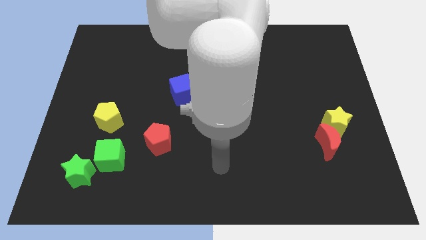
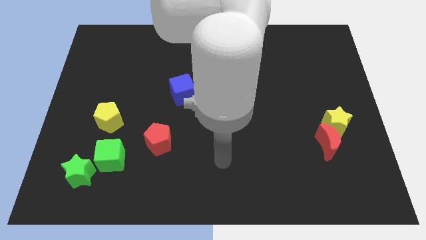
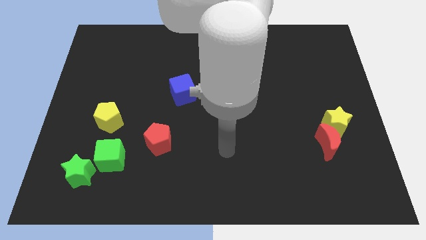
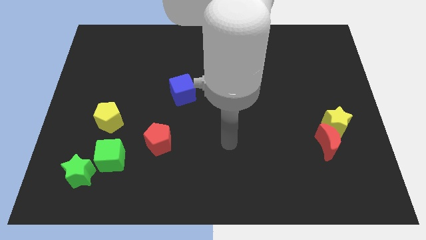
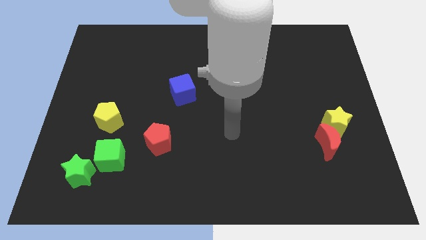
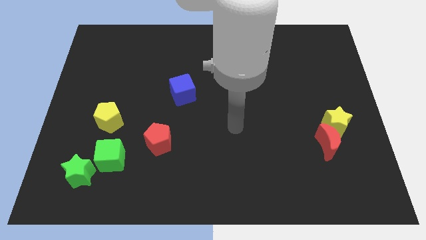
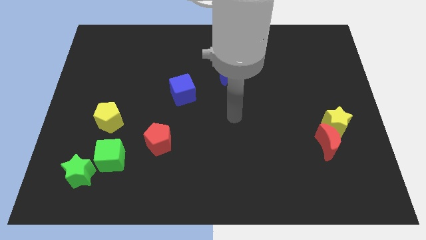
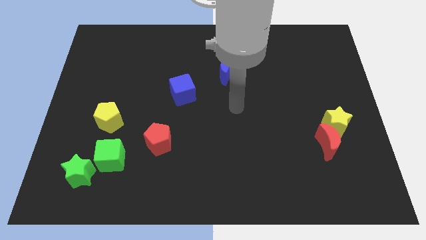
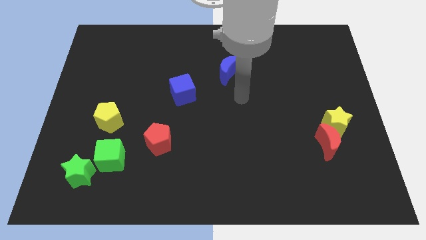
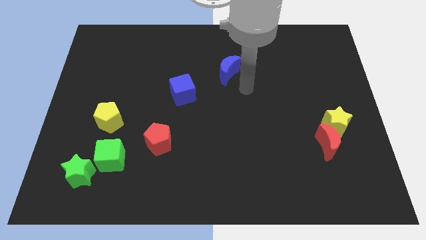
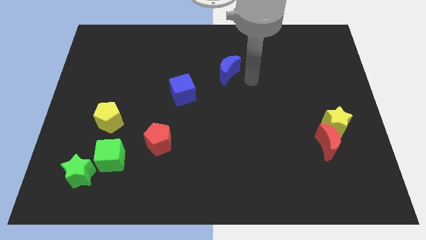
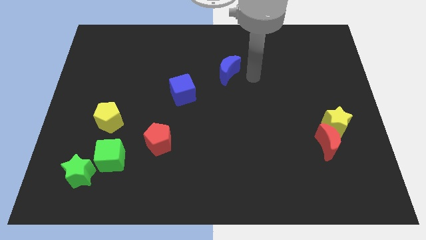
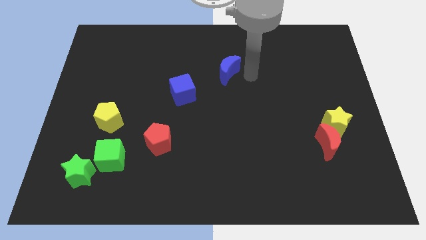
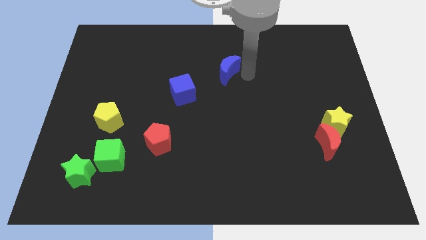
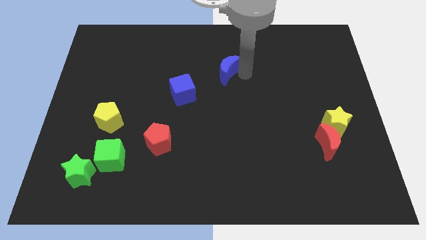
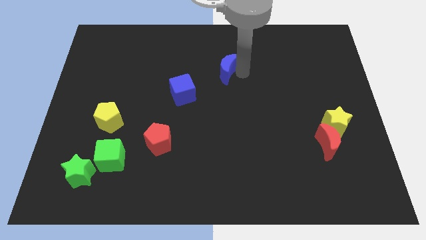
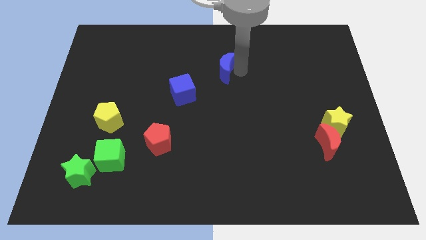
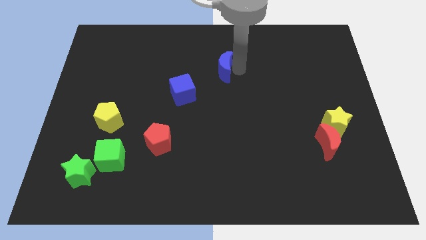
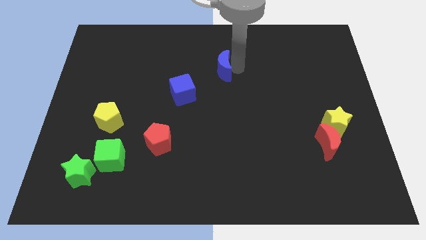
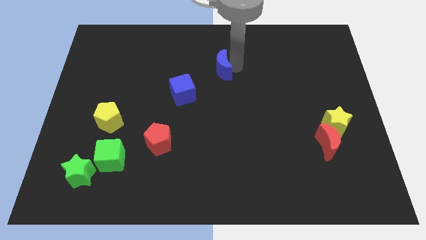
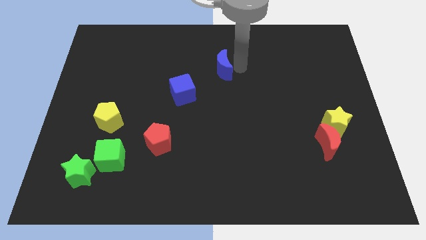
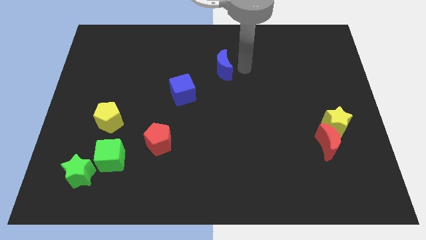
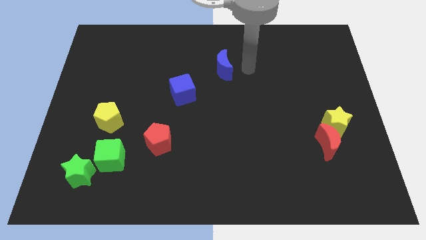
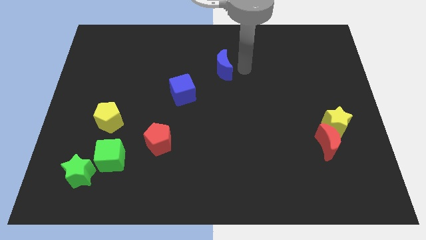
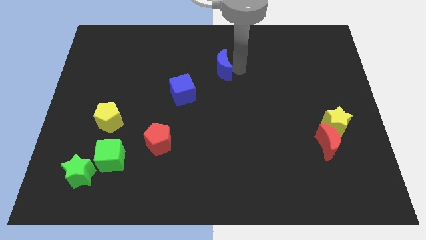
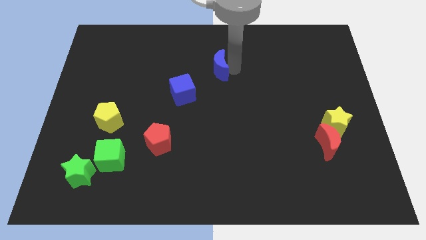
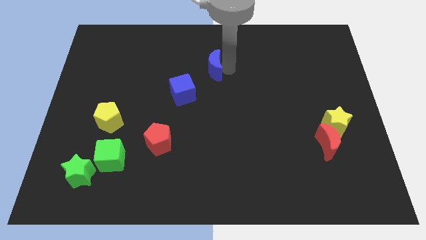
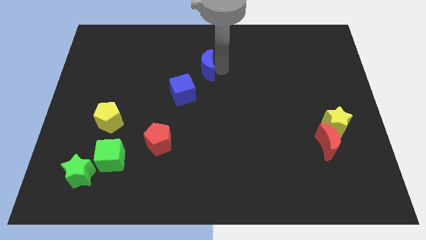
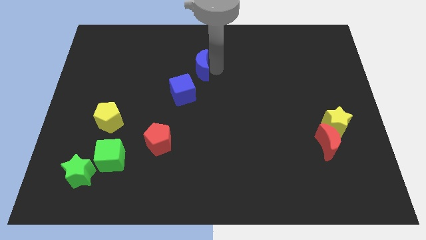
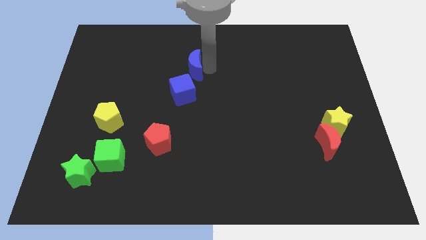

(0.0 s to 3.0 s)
push the blue moon left slightly

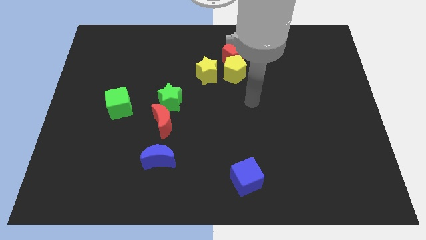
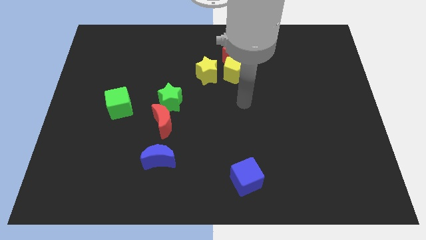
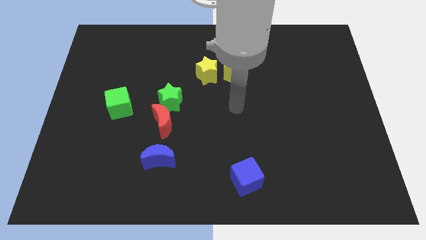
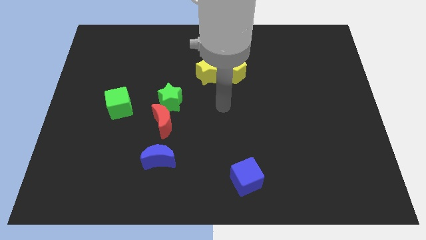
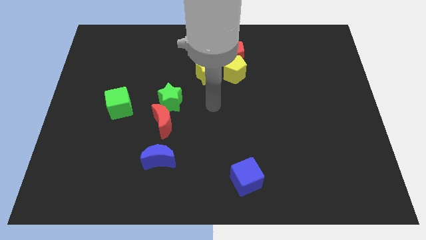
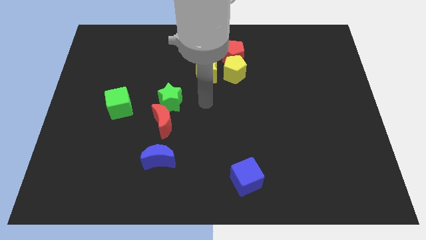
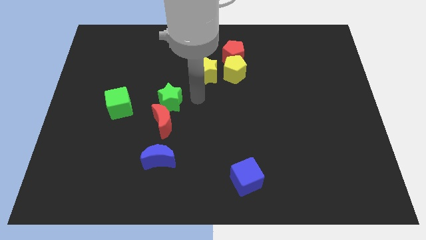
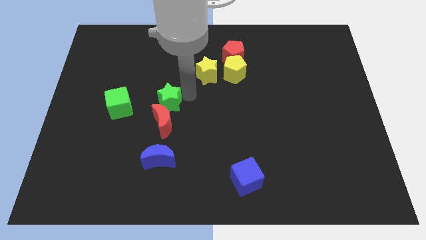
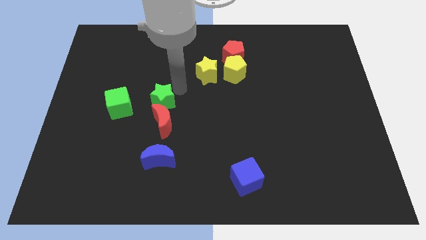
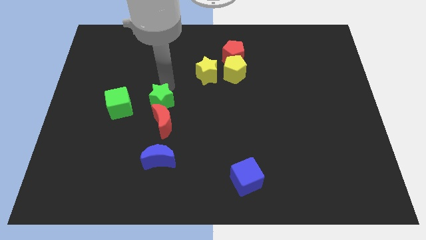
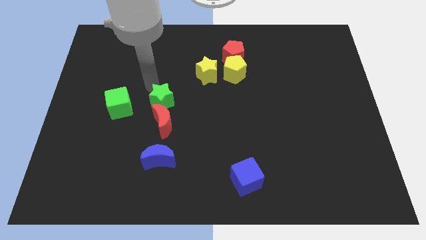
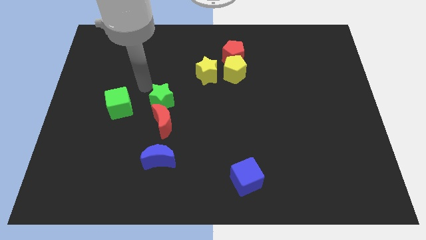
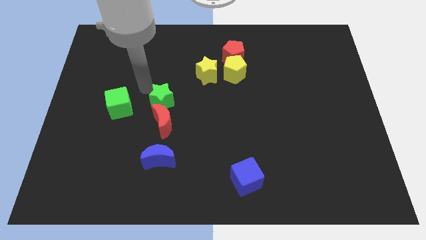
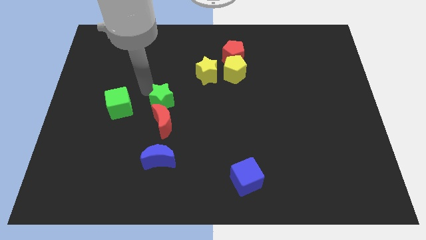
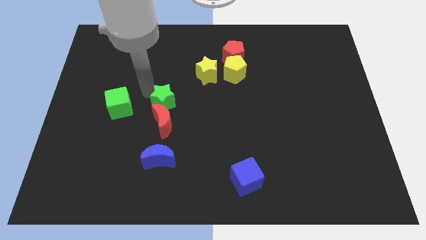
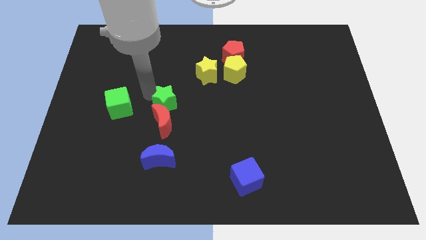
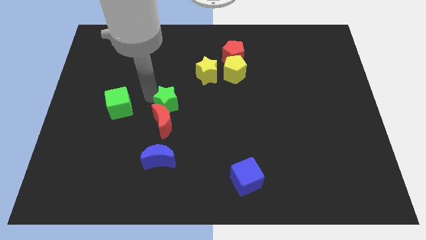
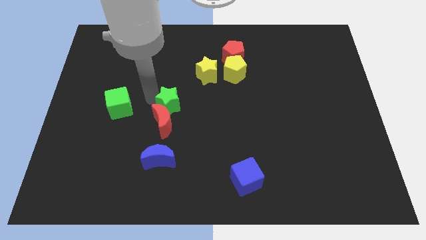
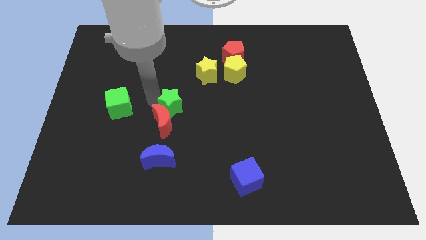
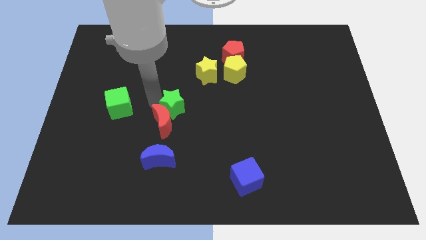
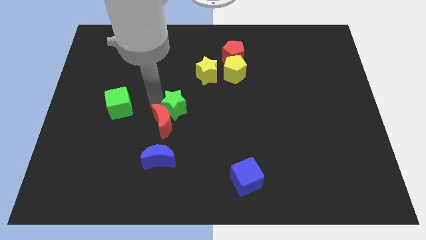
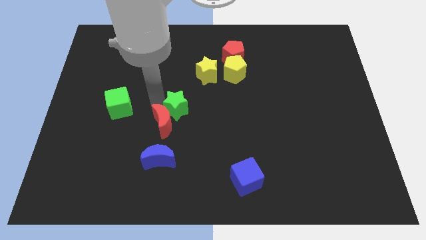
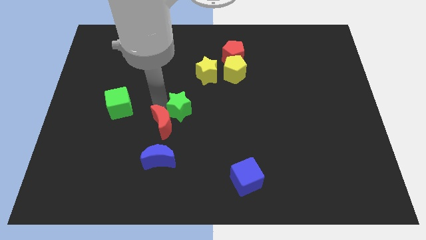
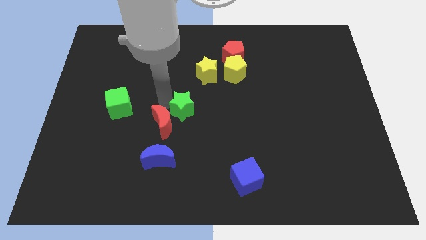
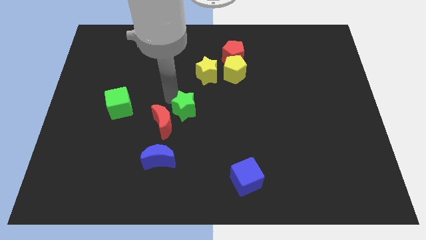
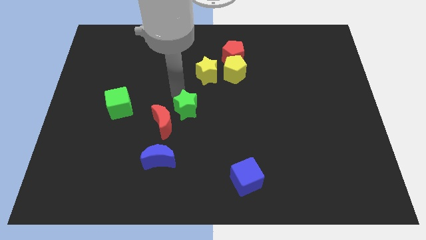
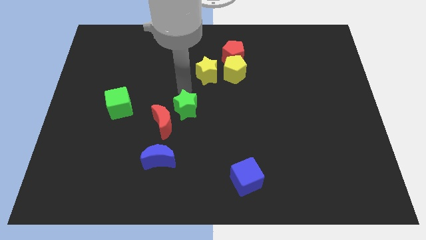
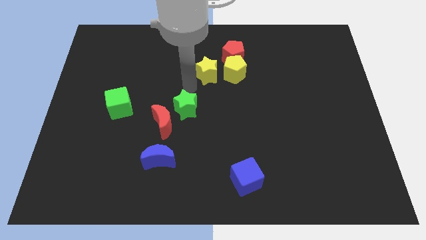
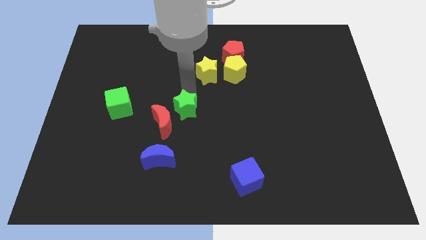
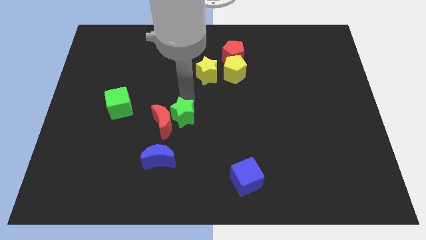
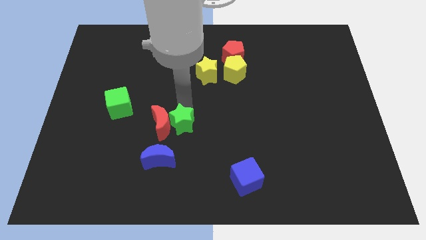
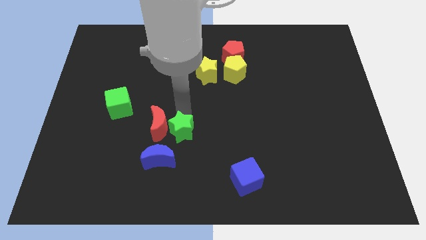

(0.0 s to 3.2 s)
slightly move the green star down

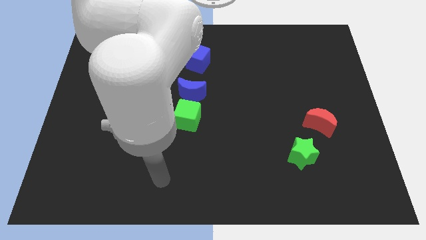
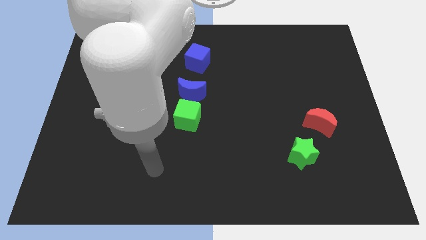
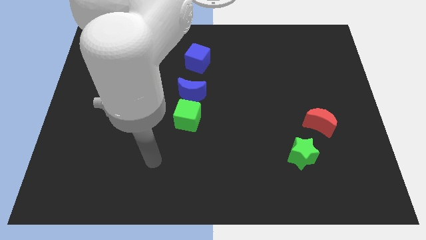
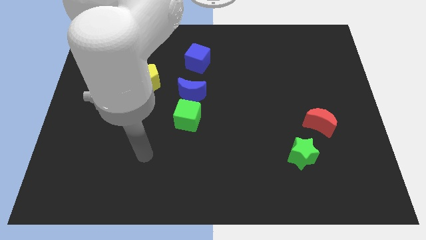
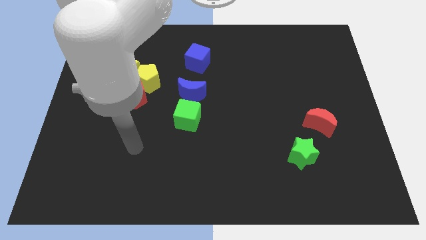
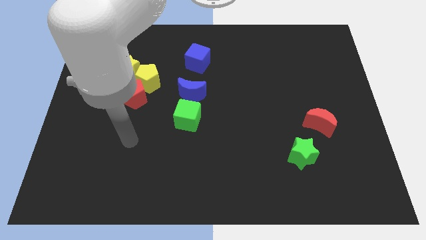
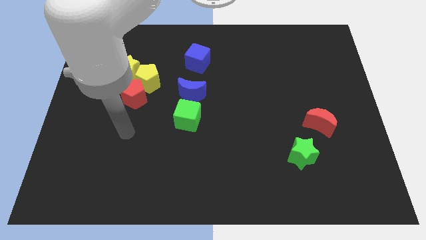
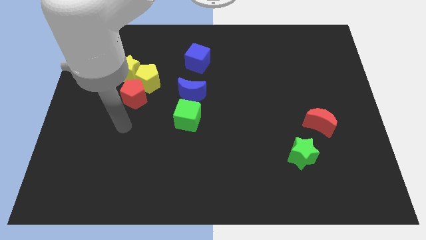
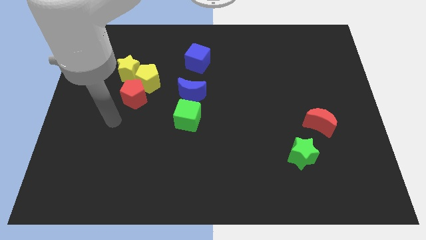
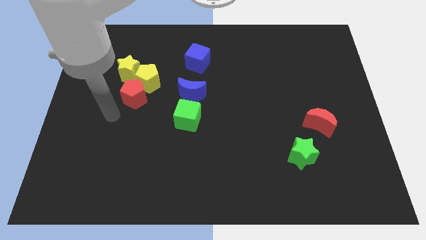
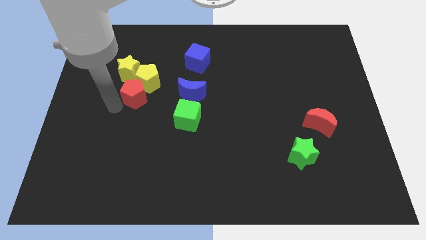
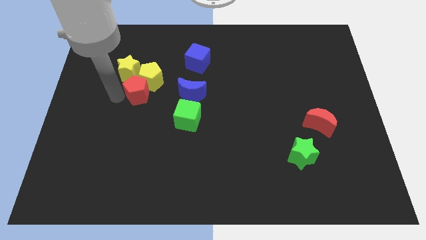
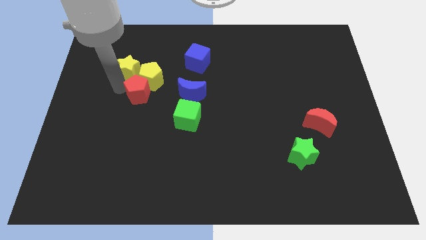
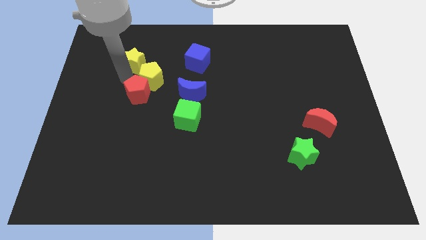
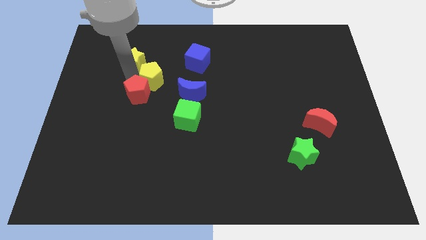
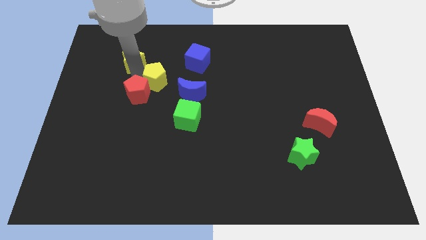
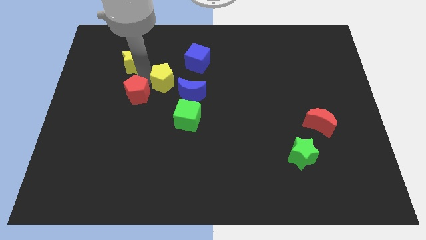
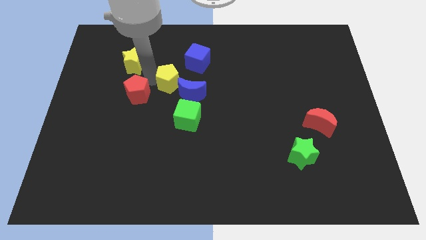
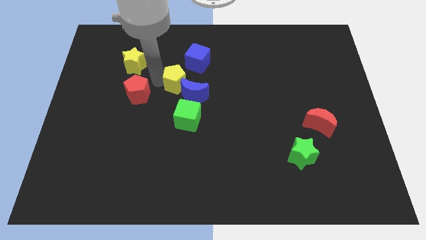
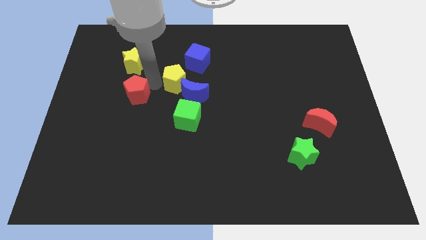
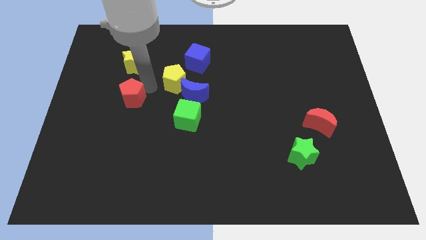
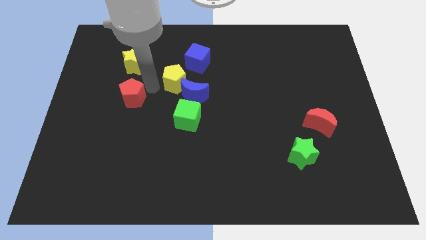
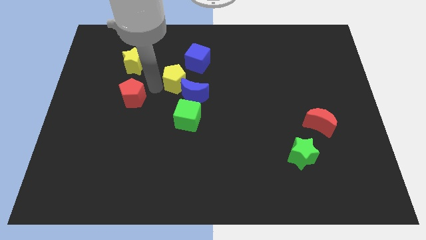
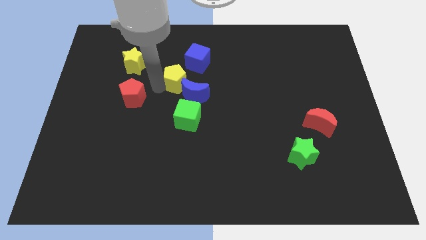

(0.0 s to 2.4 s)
slightly slide the yellow pentagon right
